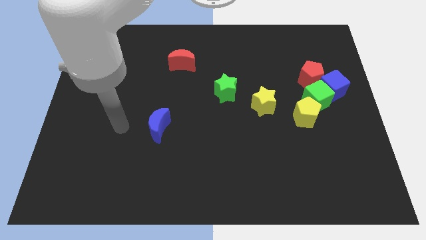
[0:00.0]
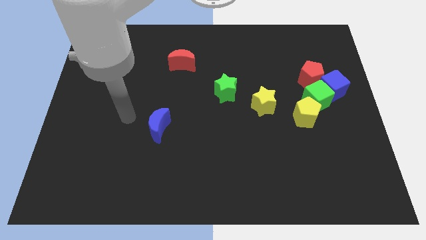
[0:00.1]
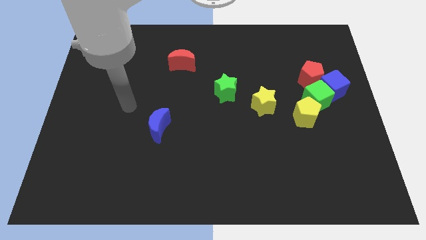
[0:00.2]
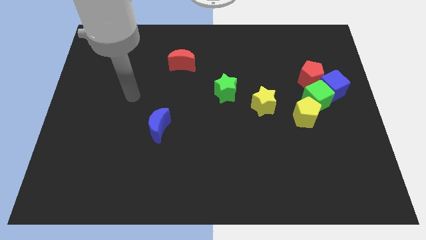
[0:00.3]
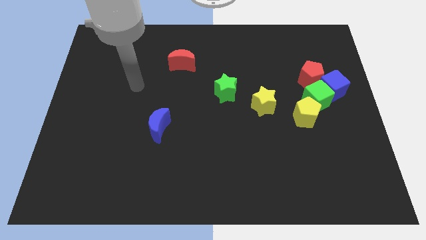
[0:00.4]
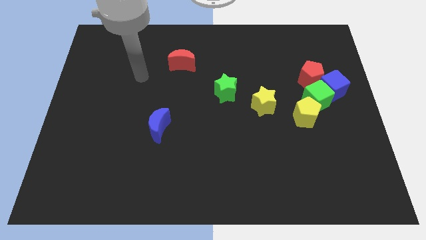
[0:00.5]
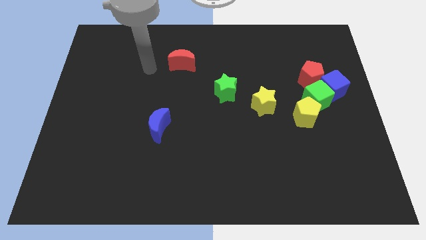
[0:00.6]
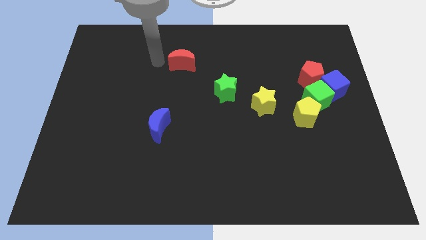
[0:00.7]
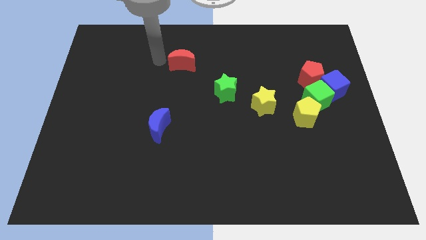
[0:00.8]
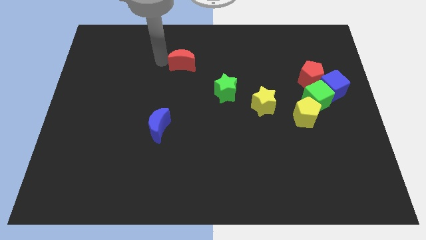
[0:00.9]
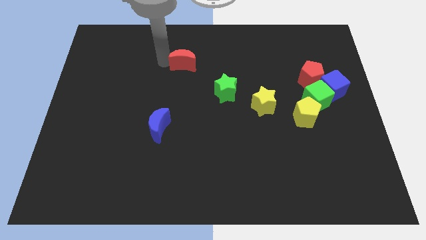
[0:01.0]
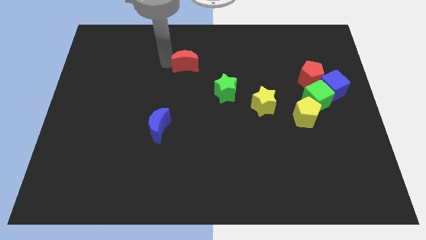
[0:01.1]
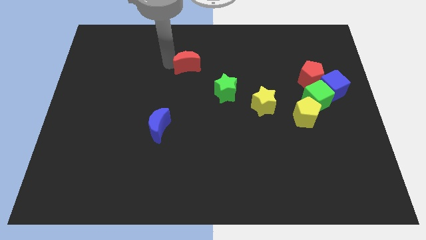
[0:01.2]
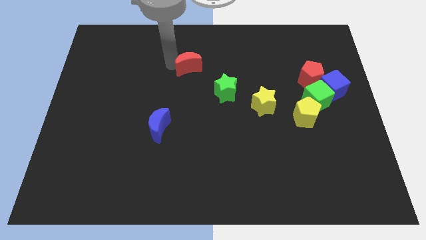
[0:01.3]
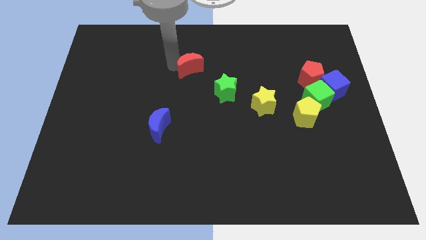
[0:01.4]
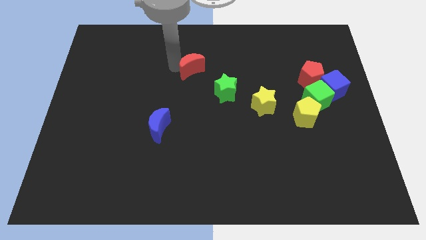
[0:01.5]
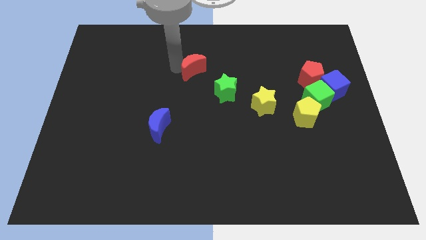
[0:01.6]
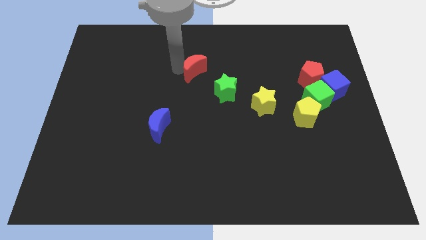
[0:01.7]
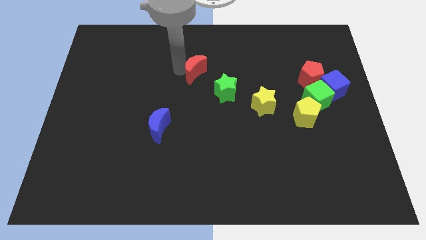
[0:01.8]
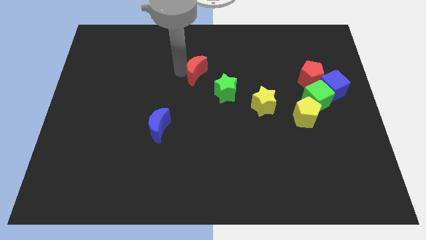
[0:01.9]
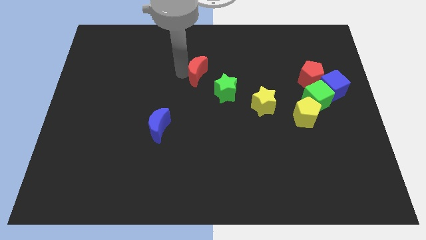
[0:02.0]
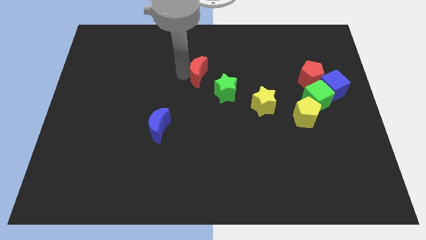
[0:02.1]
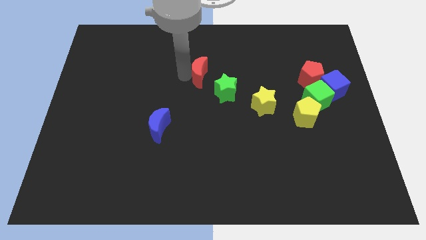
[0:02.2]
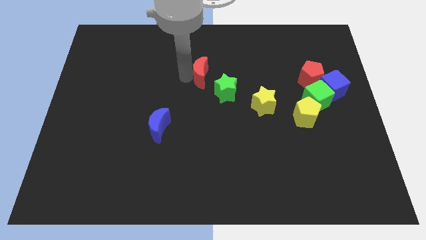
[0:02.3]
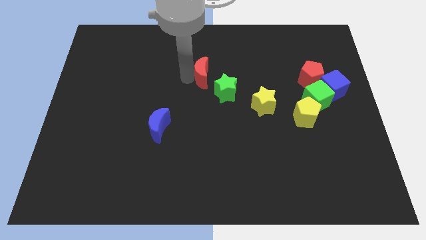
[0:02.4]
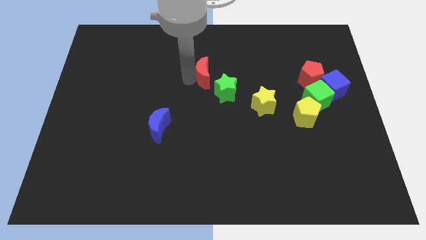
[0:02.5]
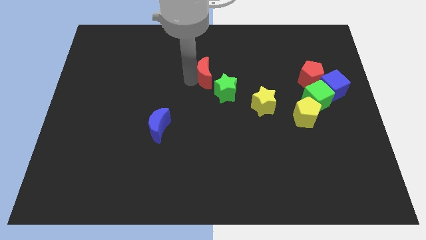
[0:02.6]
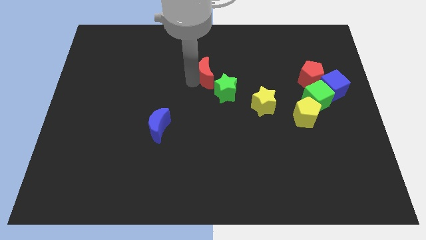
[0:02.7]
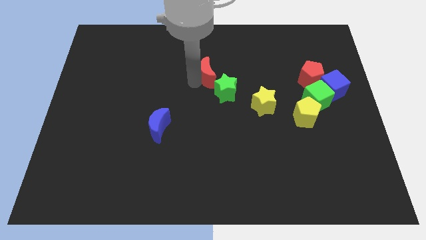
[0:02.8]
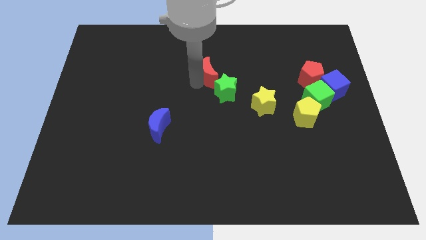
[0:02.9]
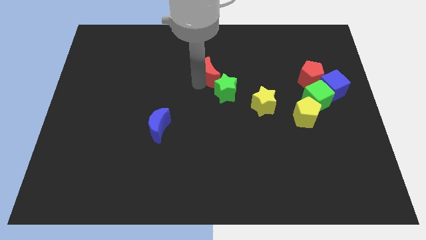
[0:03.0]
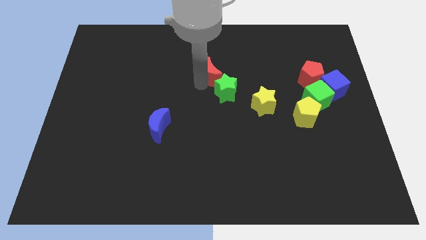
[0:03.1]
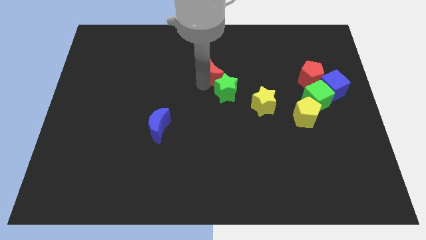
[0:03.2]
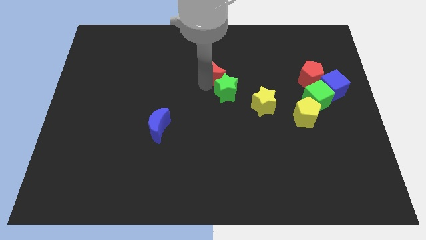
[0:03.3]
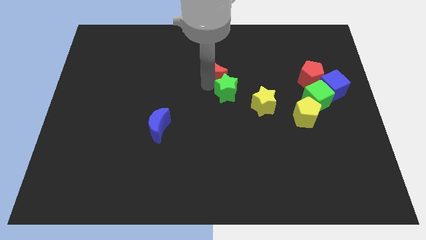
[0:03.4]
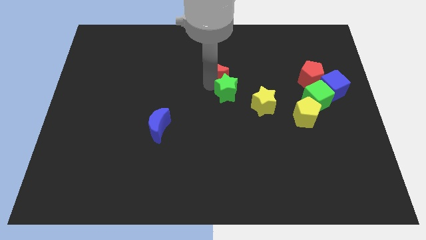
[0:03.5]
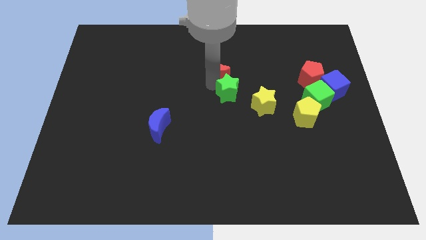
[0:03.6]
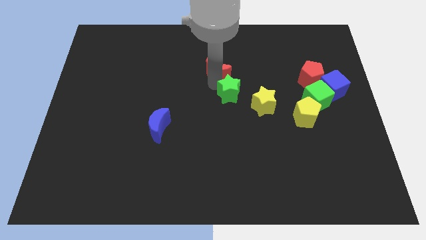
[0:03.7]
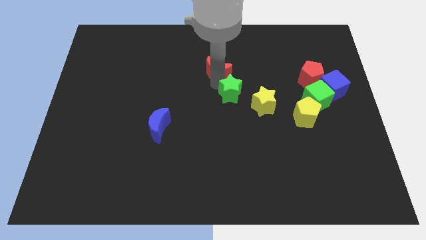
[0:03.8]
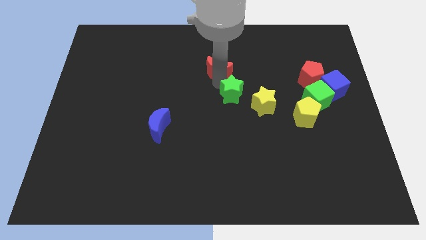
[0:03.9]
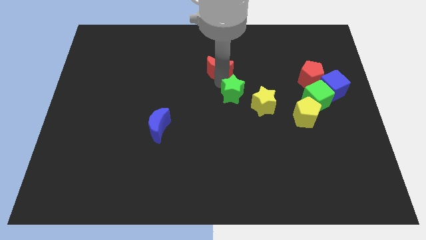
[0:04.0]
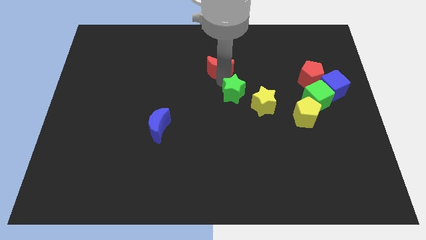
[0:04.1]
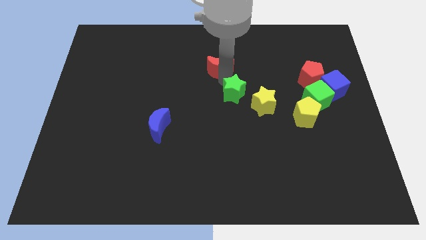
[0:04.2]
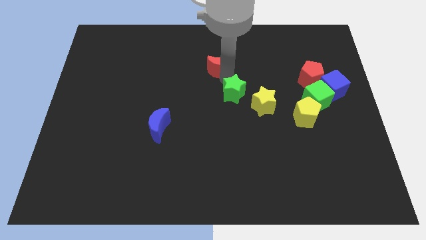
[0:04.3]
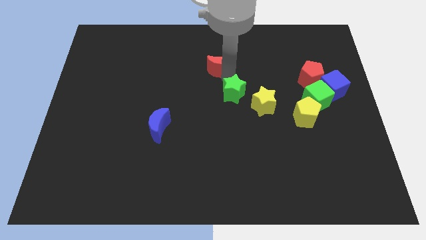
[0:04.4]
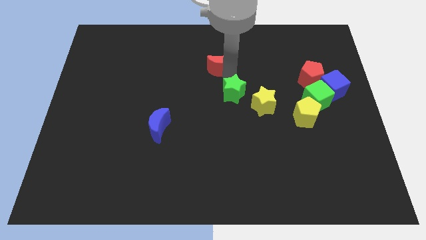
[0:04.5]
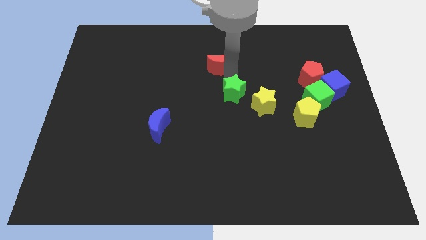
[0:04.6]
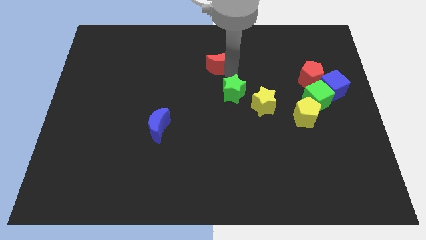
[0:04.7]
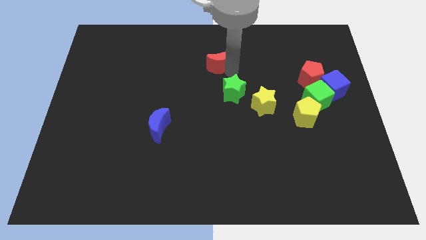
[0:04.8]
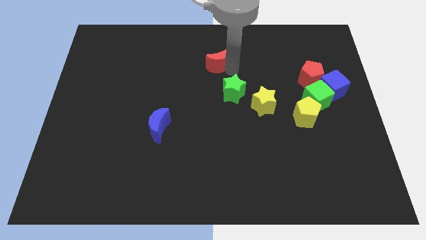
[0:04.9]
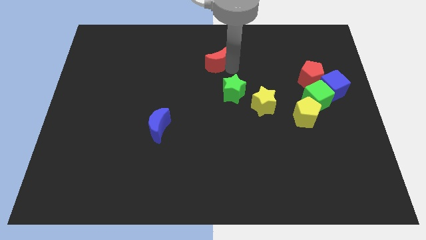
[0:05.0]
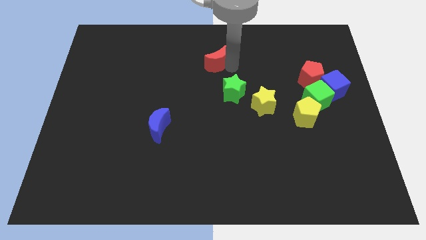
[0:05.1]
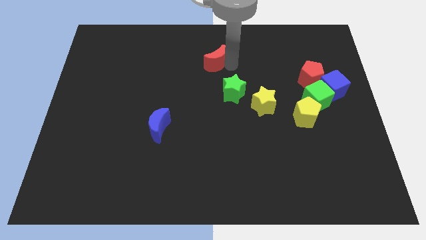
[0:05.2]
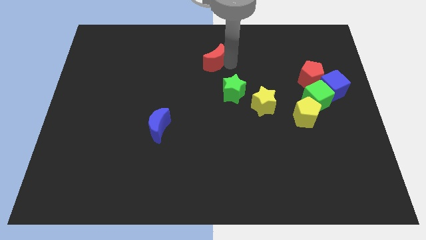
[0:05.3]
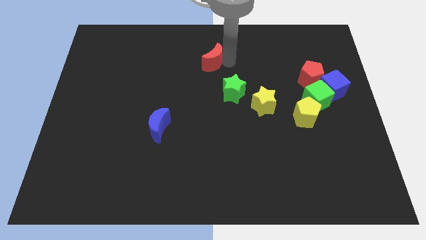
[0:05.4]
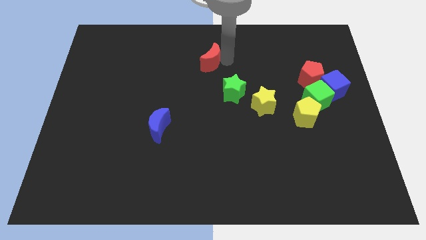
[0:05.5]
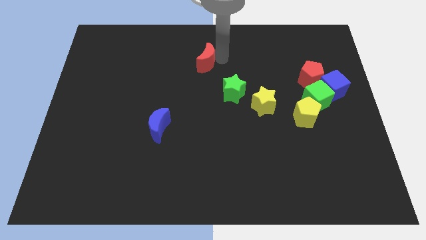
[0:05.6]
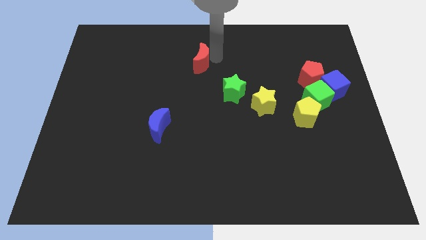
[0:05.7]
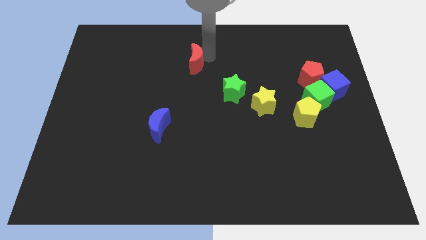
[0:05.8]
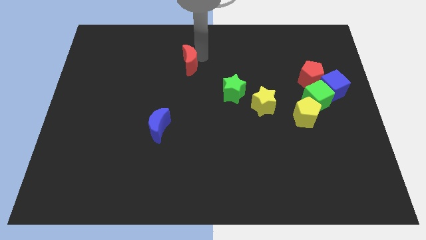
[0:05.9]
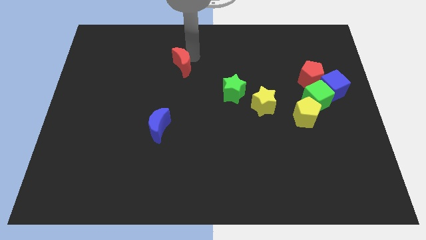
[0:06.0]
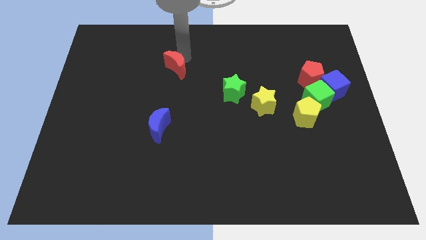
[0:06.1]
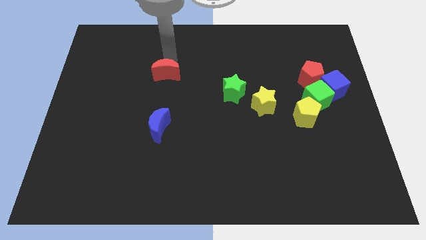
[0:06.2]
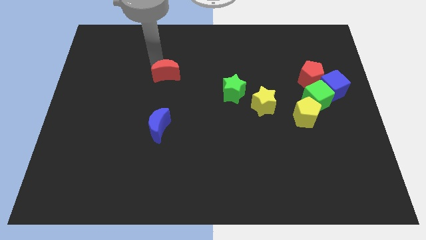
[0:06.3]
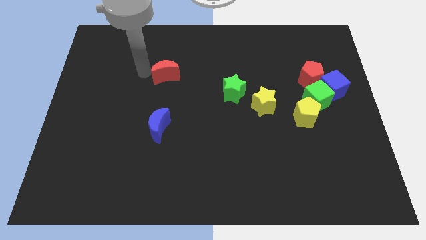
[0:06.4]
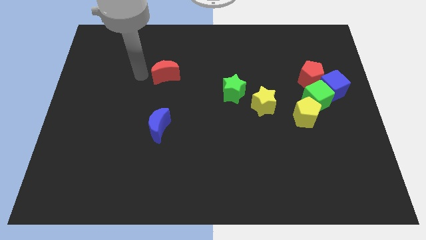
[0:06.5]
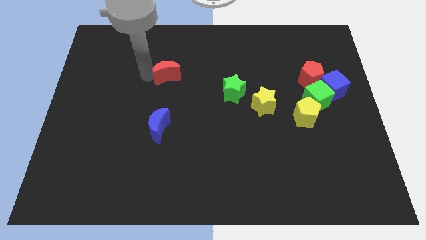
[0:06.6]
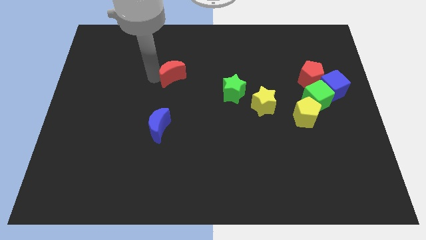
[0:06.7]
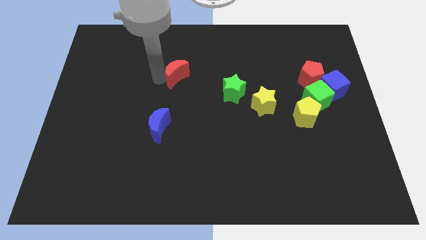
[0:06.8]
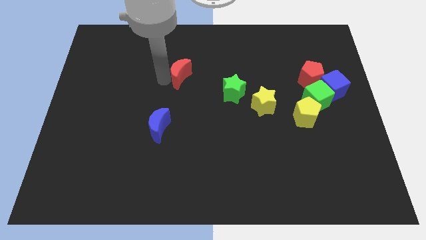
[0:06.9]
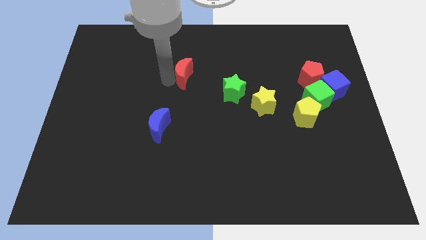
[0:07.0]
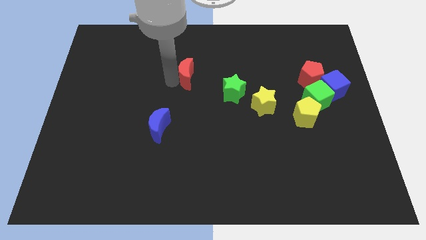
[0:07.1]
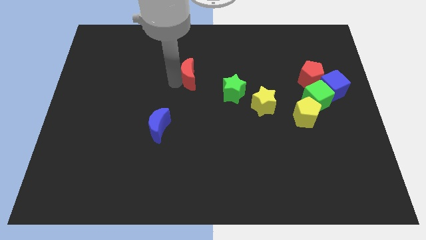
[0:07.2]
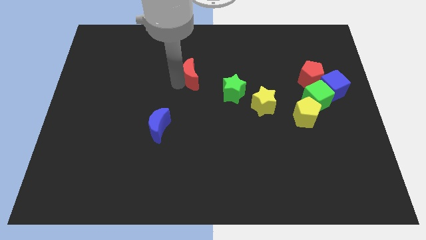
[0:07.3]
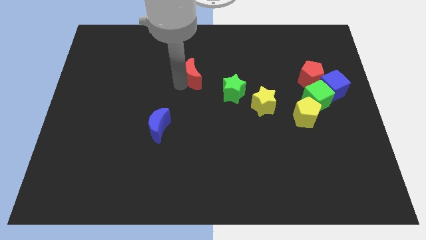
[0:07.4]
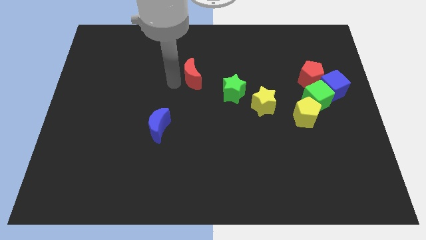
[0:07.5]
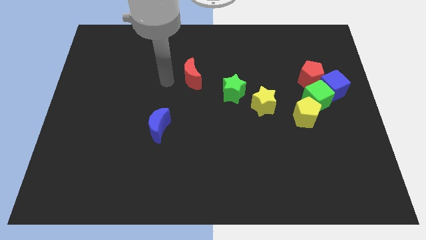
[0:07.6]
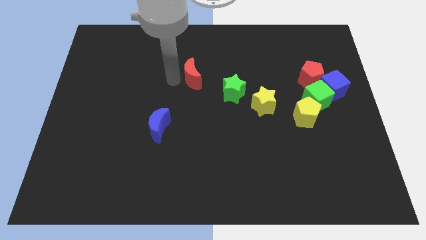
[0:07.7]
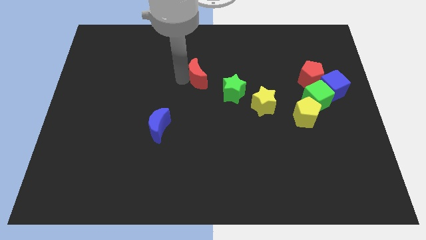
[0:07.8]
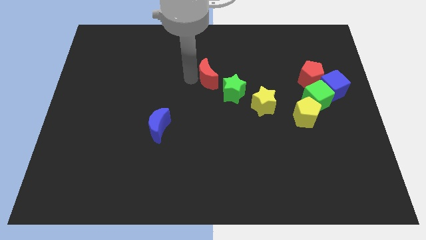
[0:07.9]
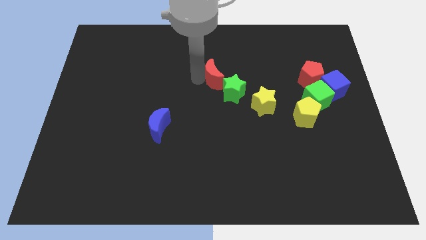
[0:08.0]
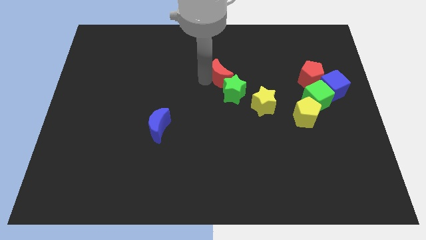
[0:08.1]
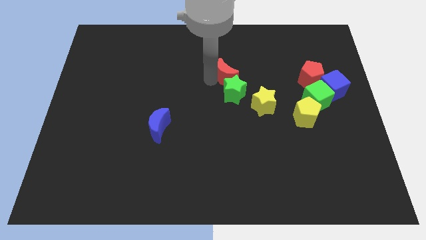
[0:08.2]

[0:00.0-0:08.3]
put the red moon diagonally up and to the right of the green star
